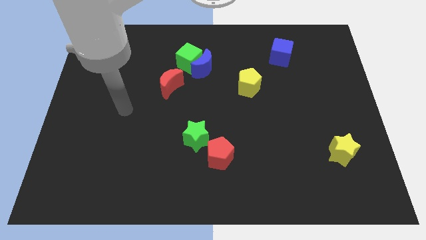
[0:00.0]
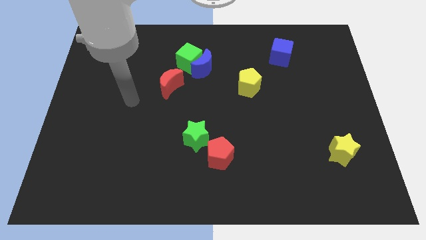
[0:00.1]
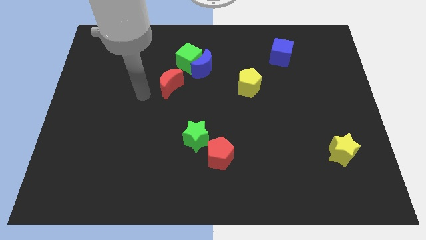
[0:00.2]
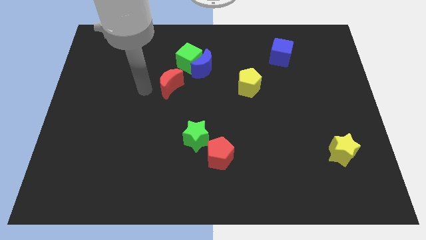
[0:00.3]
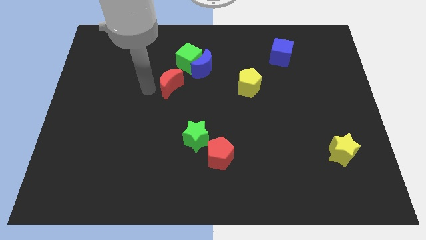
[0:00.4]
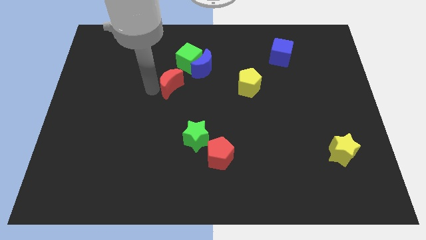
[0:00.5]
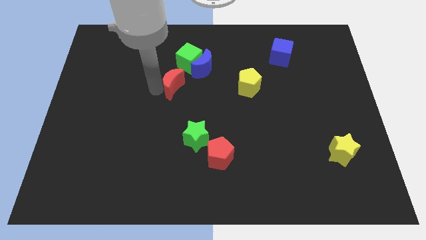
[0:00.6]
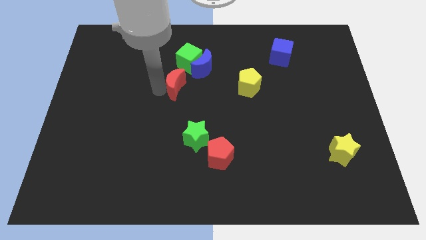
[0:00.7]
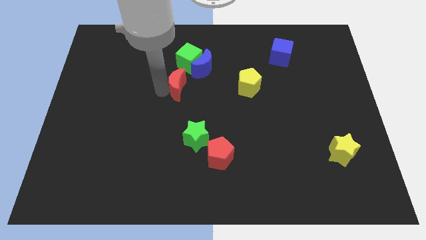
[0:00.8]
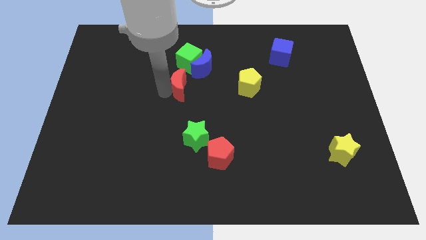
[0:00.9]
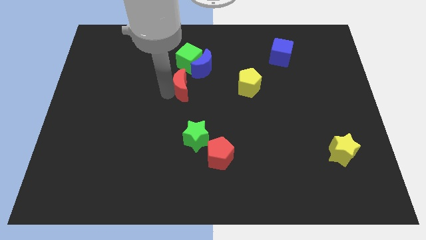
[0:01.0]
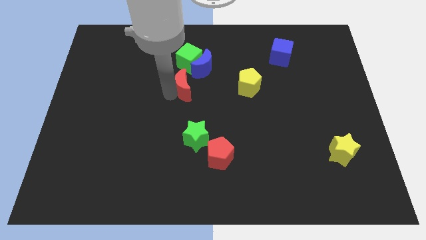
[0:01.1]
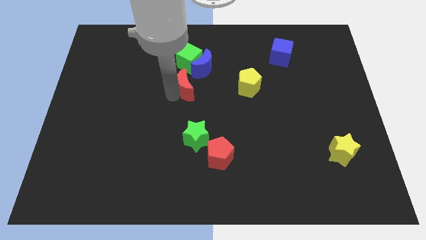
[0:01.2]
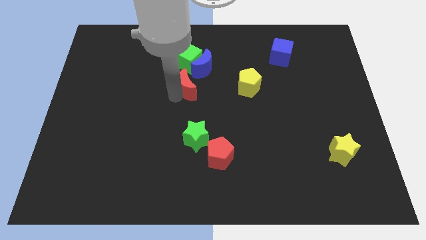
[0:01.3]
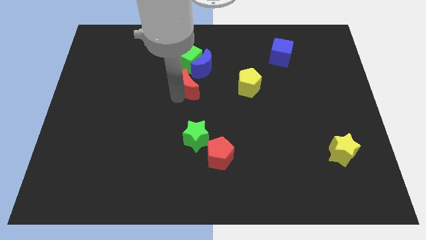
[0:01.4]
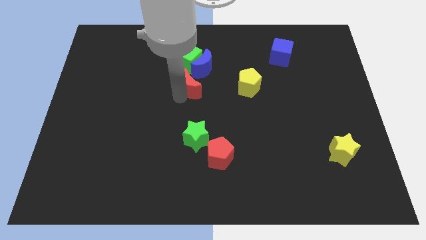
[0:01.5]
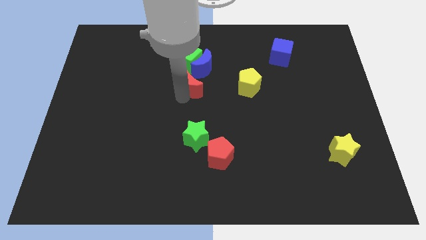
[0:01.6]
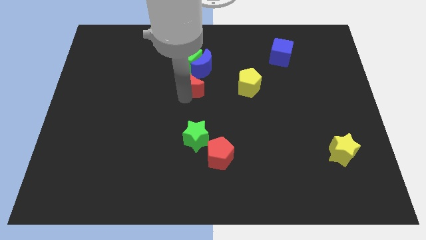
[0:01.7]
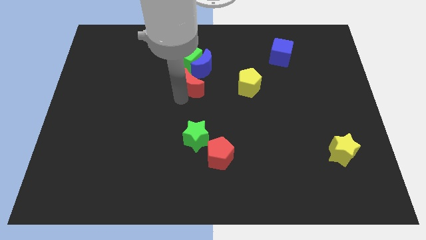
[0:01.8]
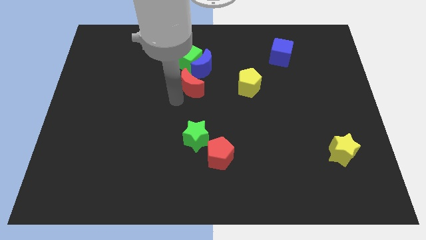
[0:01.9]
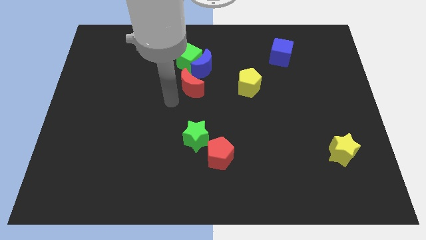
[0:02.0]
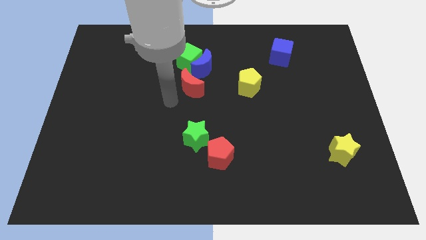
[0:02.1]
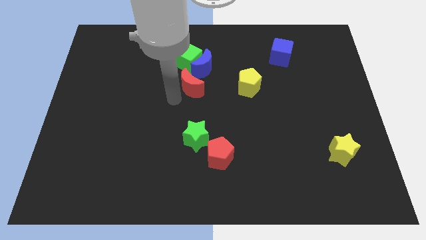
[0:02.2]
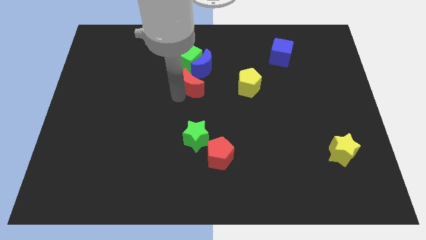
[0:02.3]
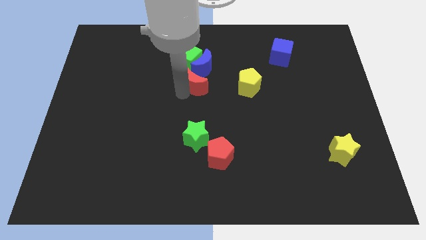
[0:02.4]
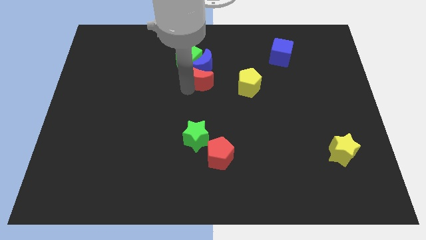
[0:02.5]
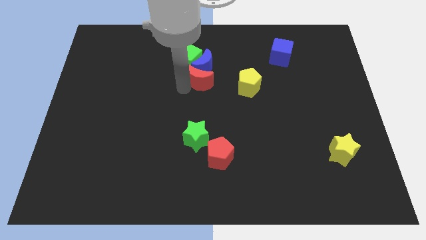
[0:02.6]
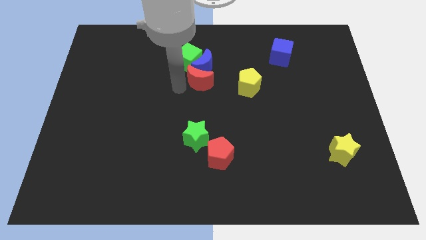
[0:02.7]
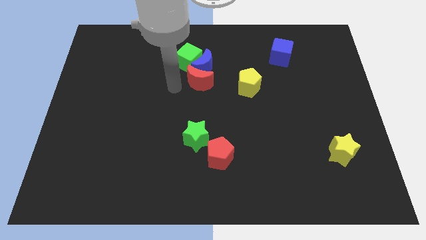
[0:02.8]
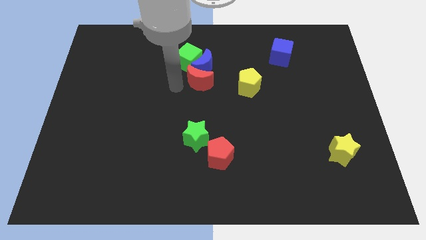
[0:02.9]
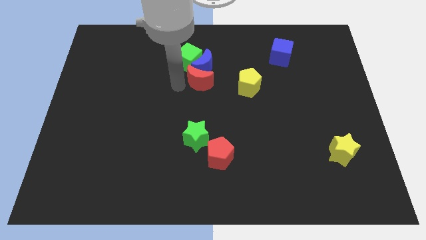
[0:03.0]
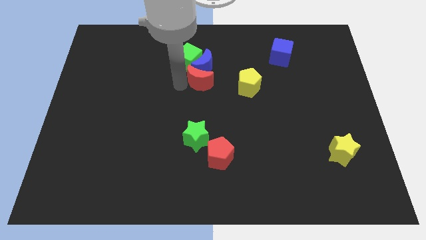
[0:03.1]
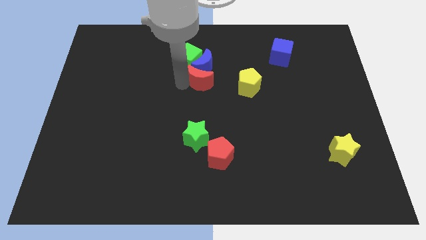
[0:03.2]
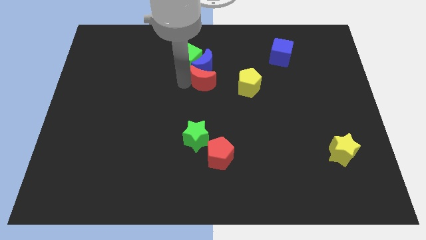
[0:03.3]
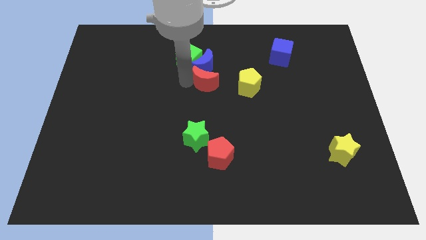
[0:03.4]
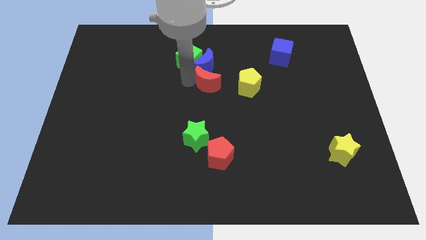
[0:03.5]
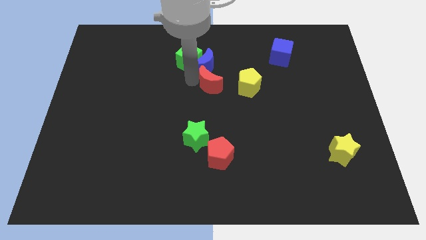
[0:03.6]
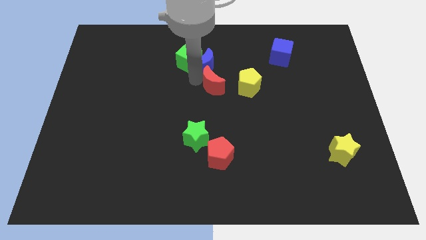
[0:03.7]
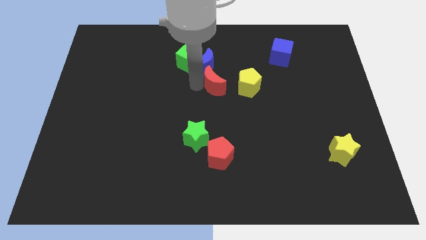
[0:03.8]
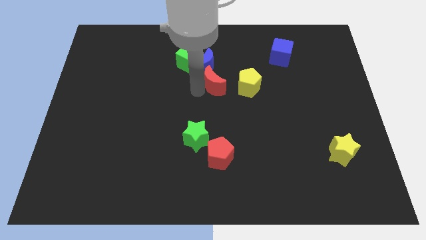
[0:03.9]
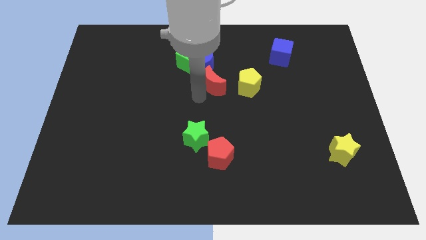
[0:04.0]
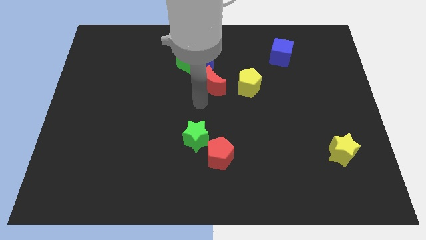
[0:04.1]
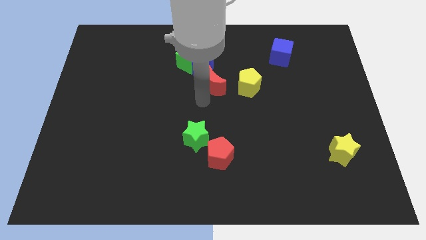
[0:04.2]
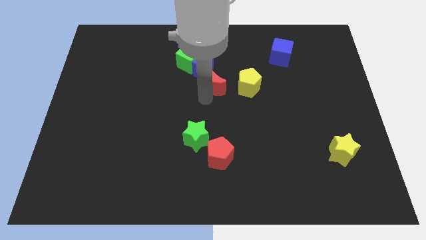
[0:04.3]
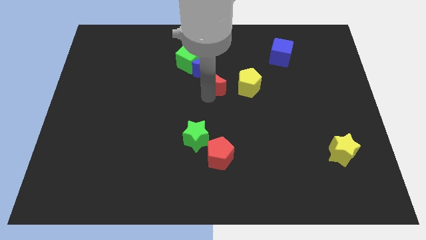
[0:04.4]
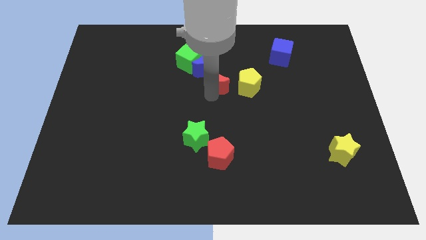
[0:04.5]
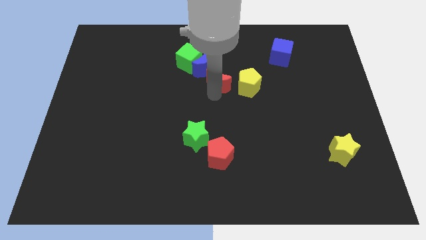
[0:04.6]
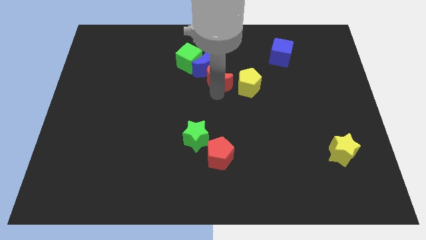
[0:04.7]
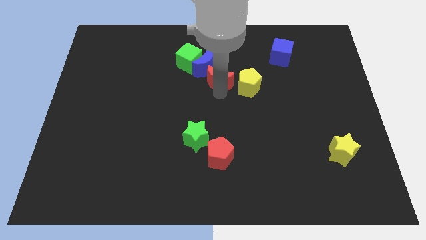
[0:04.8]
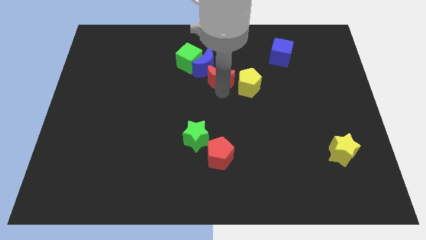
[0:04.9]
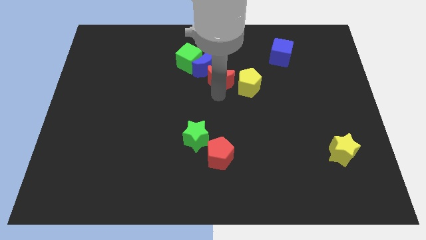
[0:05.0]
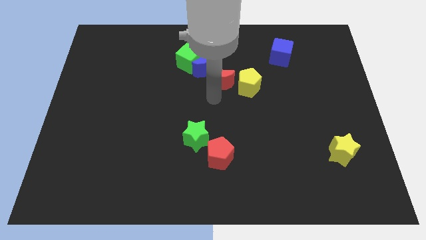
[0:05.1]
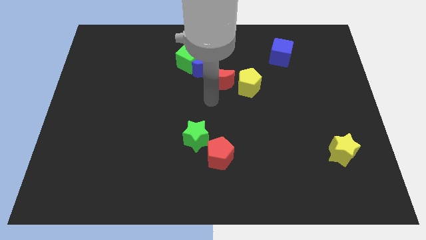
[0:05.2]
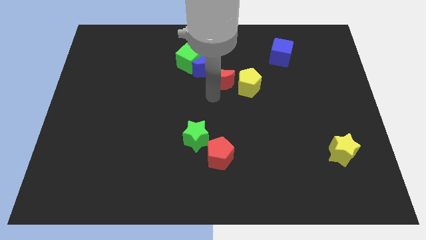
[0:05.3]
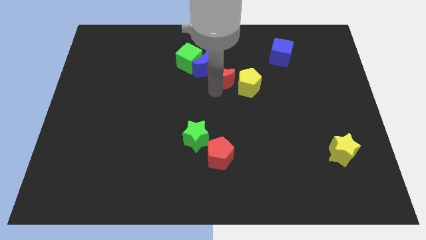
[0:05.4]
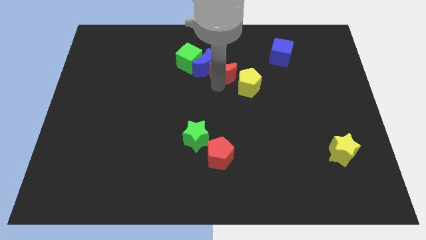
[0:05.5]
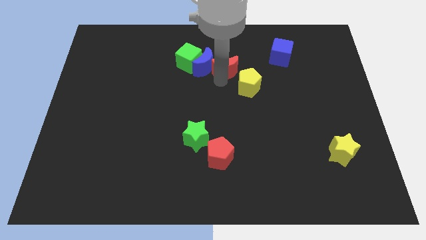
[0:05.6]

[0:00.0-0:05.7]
push the red moon to the right of the green cube

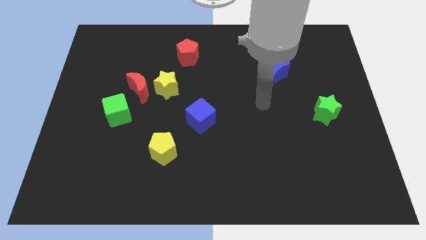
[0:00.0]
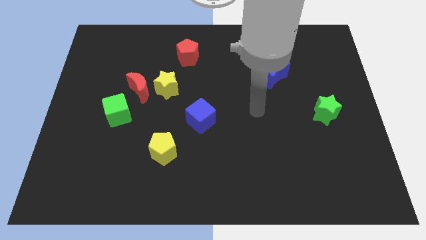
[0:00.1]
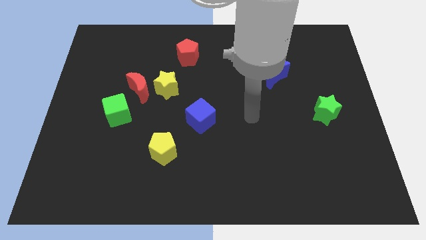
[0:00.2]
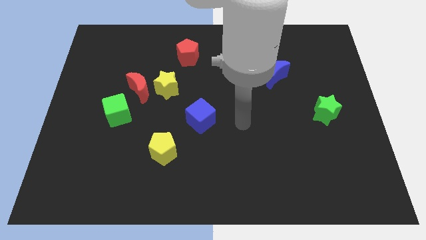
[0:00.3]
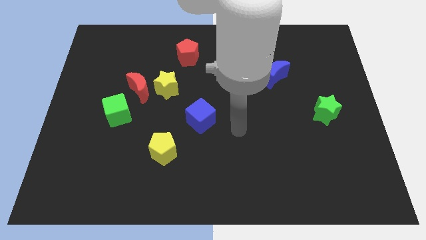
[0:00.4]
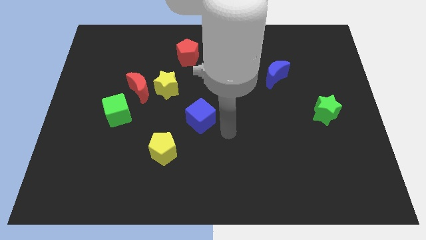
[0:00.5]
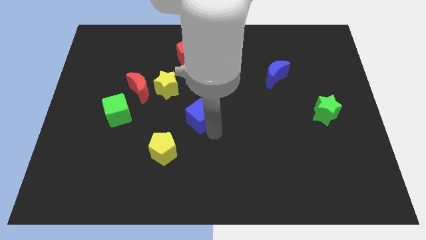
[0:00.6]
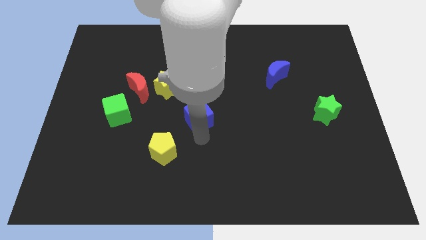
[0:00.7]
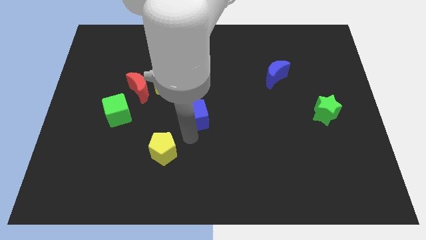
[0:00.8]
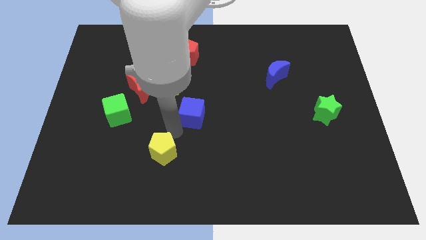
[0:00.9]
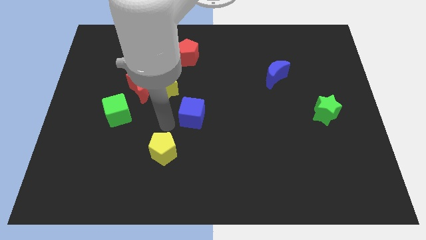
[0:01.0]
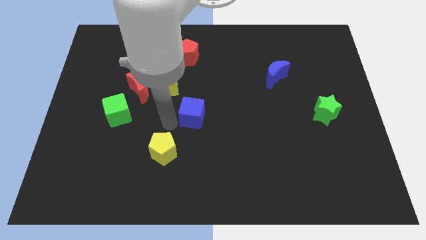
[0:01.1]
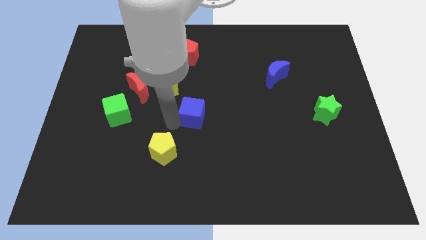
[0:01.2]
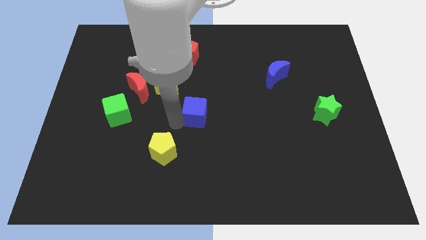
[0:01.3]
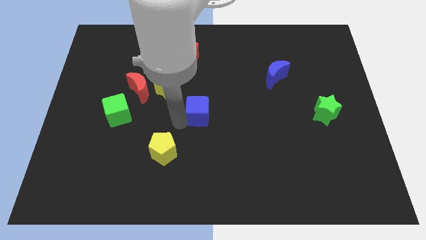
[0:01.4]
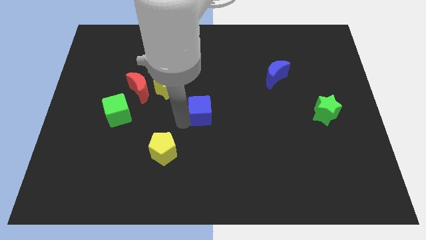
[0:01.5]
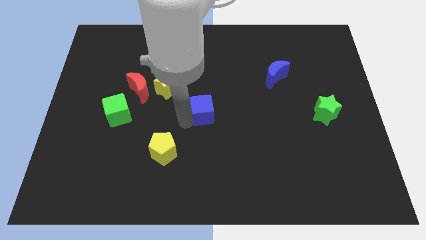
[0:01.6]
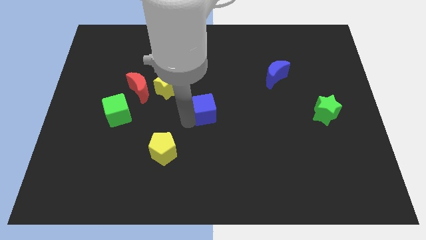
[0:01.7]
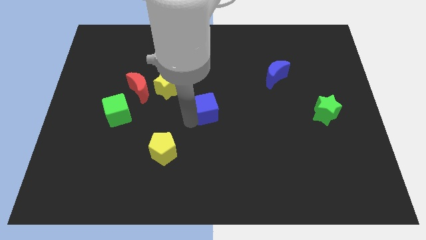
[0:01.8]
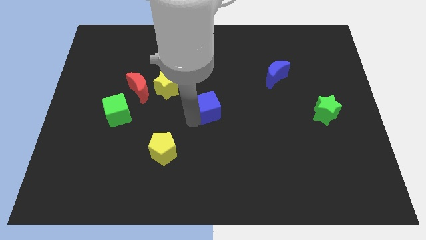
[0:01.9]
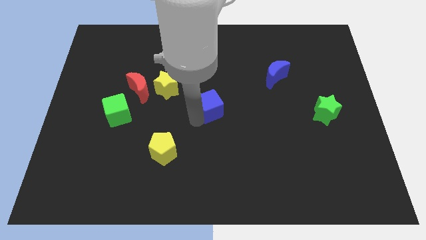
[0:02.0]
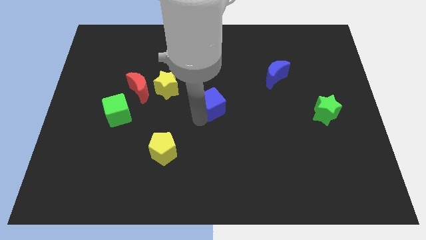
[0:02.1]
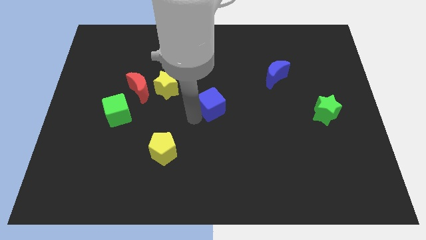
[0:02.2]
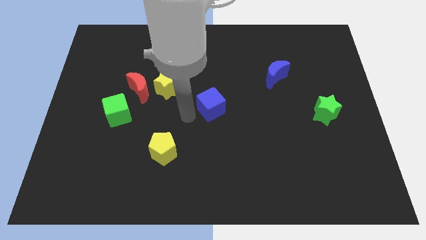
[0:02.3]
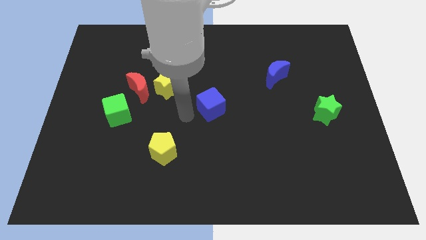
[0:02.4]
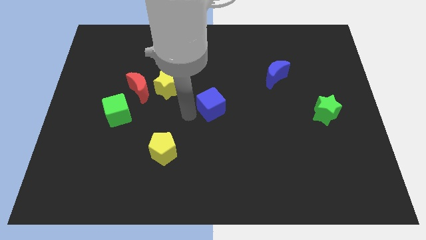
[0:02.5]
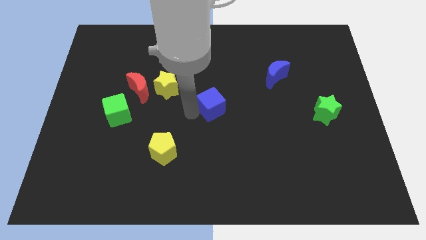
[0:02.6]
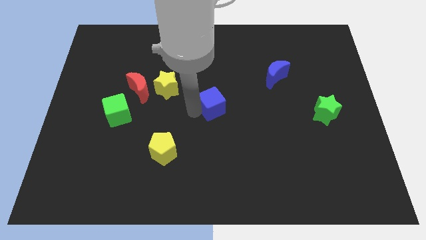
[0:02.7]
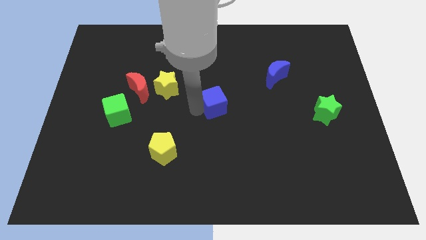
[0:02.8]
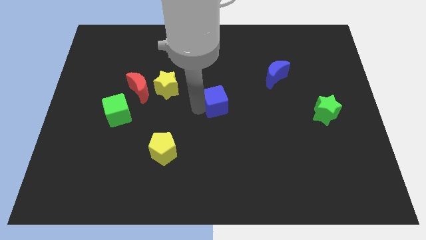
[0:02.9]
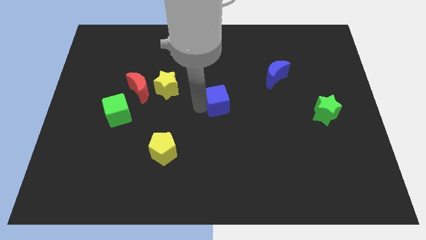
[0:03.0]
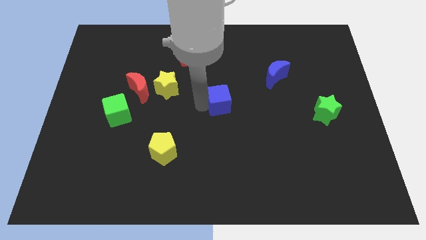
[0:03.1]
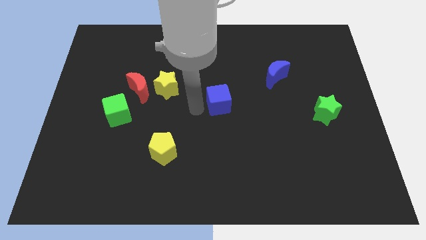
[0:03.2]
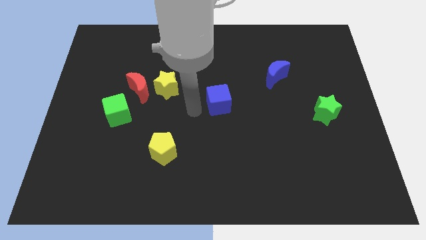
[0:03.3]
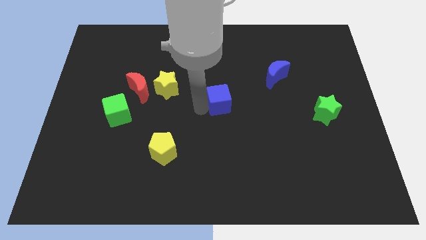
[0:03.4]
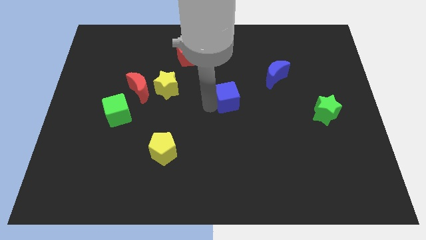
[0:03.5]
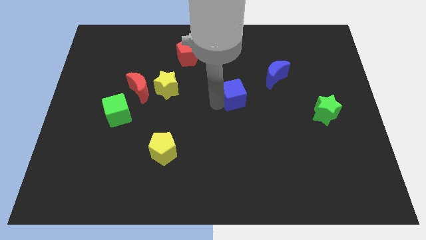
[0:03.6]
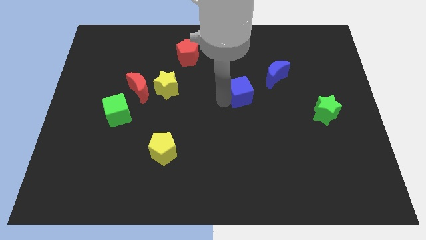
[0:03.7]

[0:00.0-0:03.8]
move the blue cube to the bottom left of the blue moon
